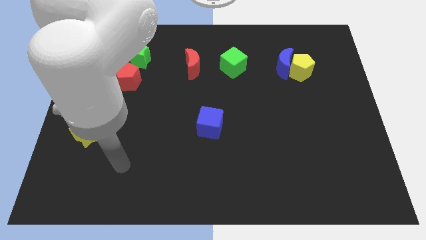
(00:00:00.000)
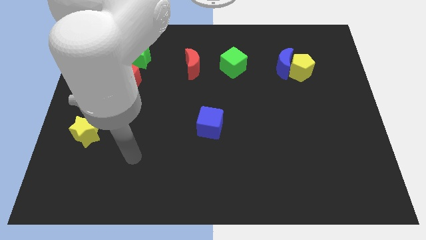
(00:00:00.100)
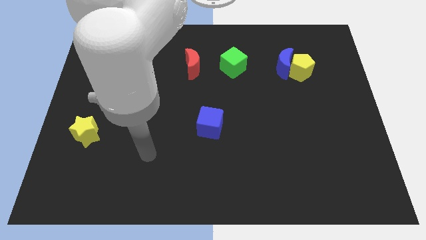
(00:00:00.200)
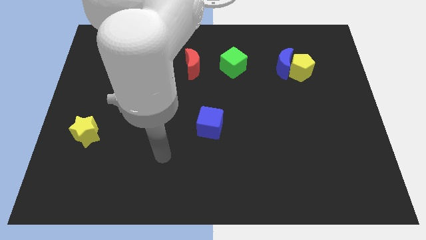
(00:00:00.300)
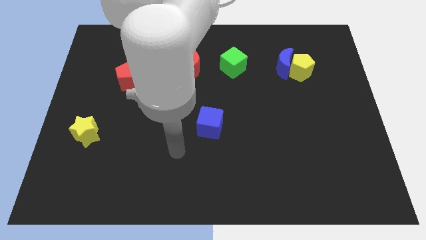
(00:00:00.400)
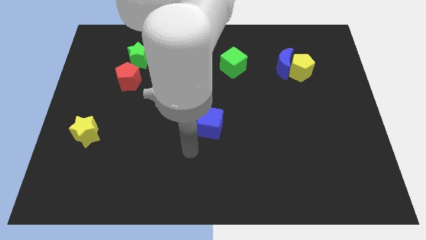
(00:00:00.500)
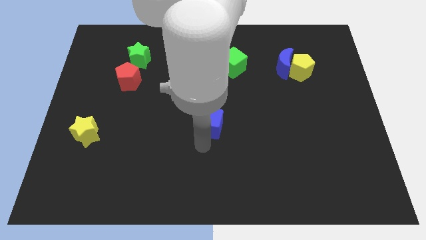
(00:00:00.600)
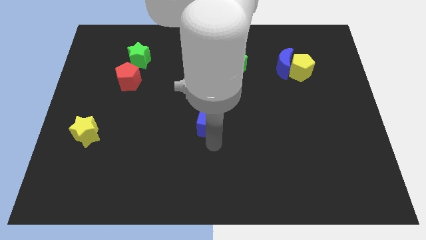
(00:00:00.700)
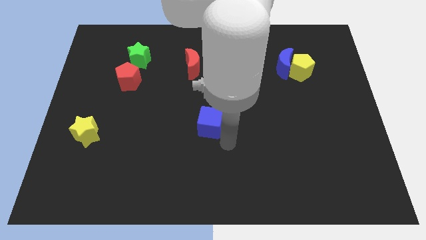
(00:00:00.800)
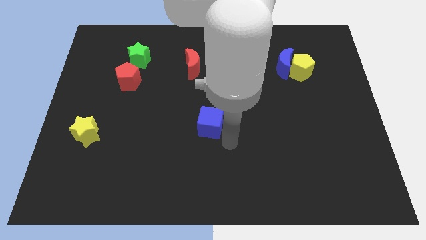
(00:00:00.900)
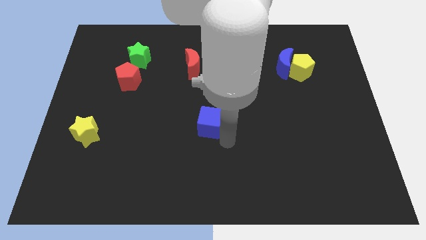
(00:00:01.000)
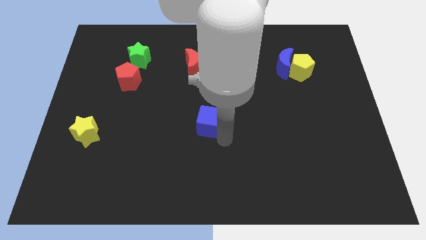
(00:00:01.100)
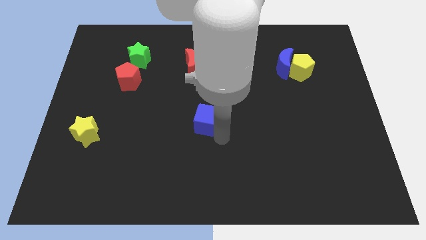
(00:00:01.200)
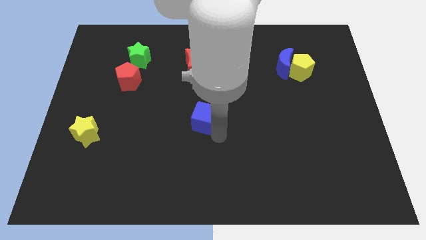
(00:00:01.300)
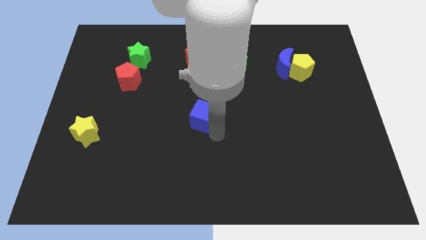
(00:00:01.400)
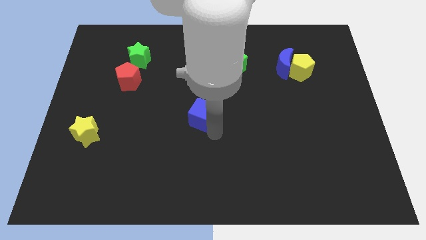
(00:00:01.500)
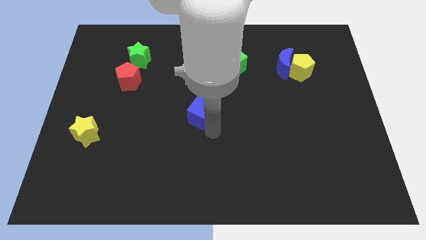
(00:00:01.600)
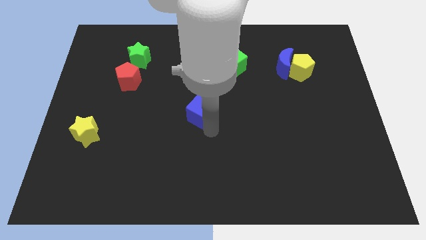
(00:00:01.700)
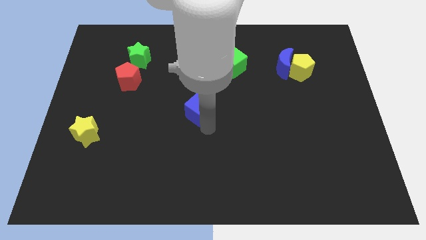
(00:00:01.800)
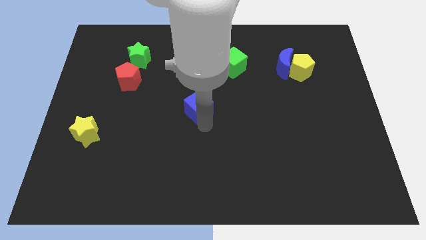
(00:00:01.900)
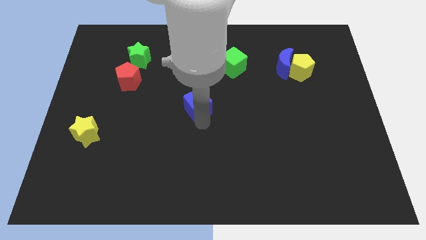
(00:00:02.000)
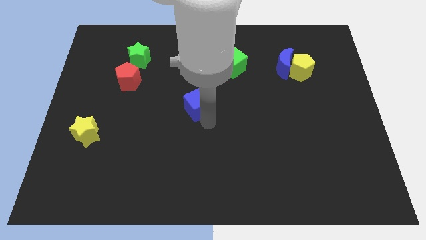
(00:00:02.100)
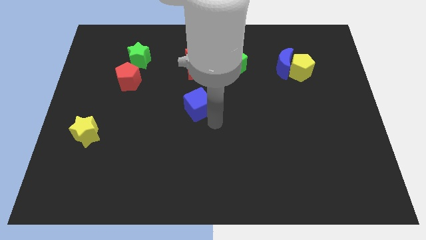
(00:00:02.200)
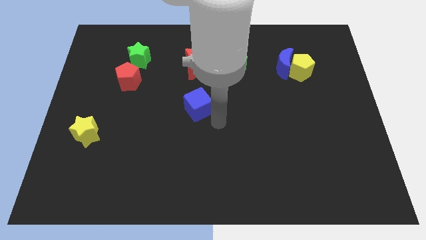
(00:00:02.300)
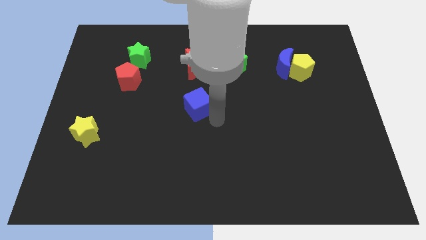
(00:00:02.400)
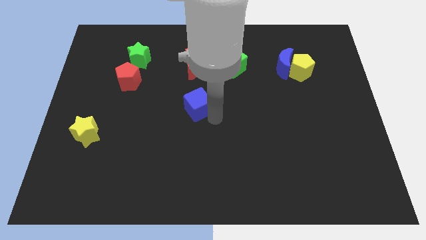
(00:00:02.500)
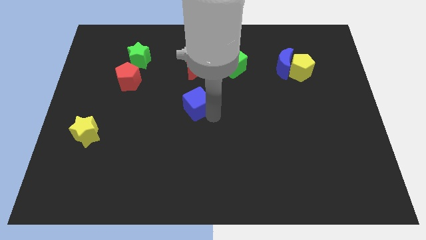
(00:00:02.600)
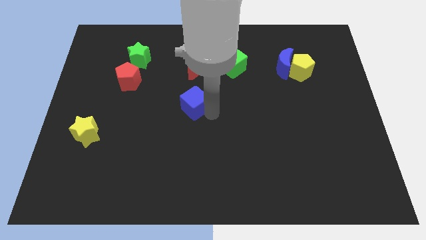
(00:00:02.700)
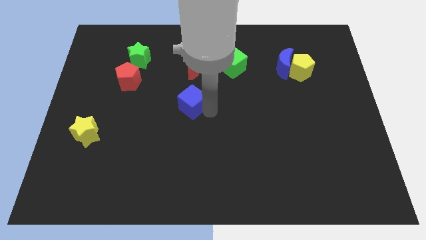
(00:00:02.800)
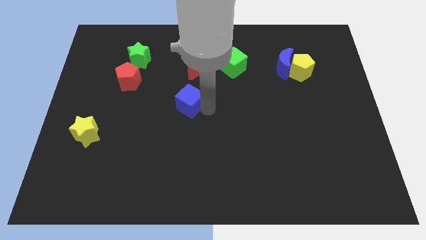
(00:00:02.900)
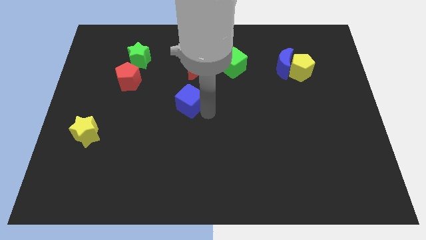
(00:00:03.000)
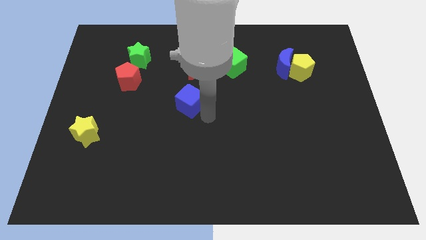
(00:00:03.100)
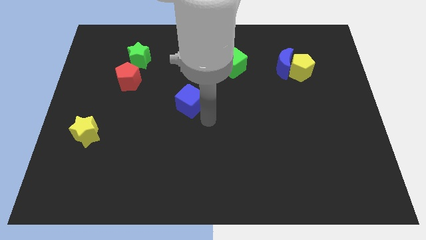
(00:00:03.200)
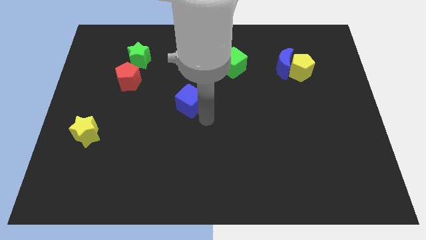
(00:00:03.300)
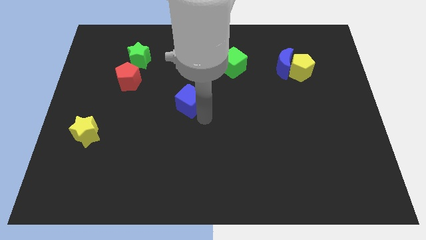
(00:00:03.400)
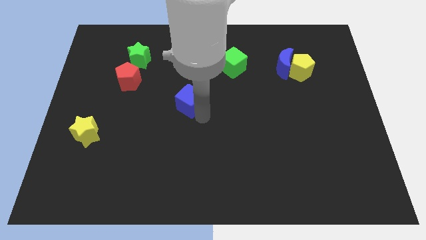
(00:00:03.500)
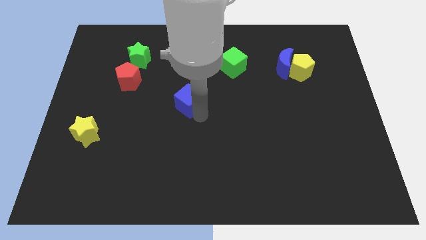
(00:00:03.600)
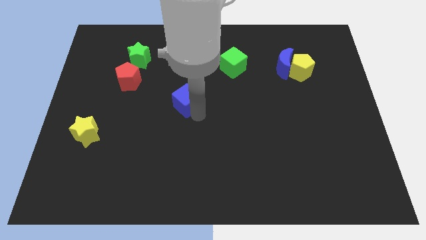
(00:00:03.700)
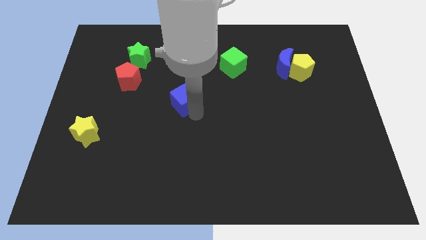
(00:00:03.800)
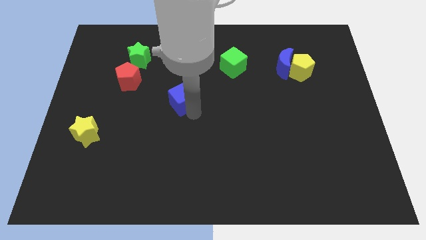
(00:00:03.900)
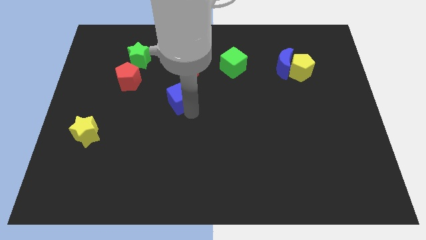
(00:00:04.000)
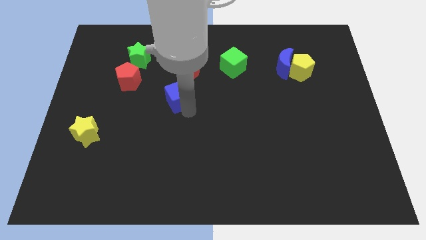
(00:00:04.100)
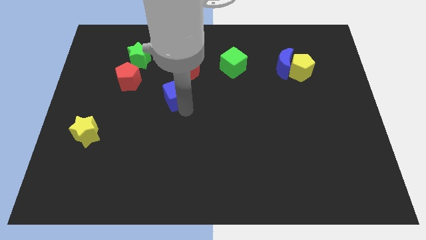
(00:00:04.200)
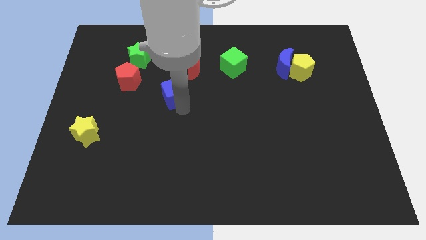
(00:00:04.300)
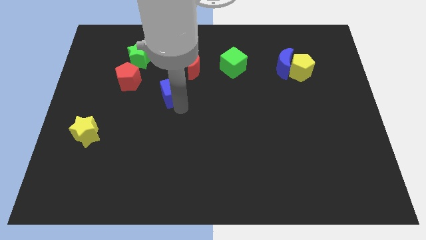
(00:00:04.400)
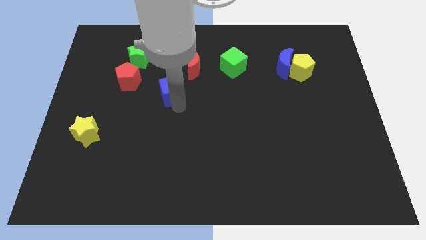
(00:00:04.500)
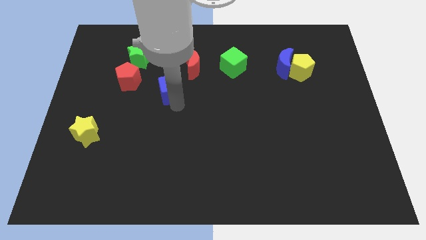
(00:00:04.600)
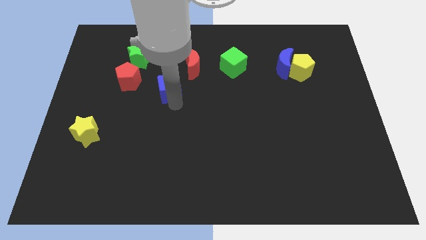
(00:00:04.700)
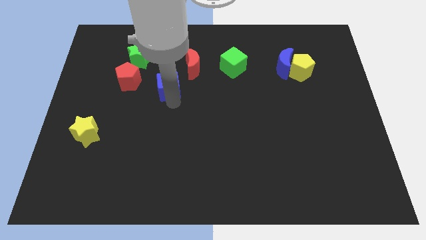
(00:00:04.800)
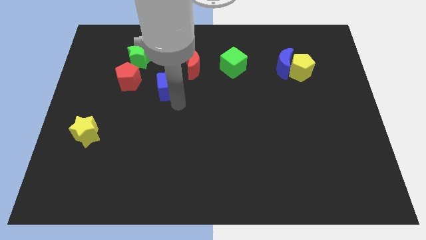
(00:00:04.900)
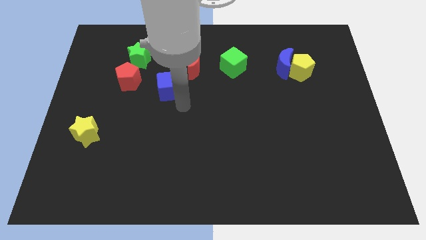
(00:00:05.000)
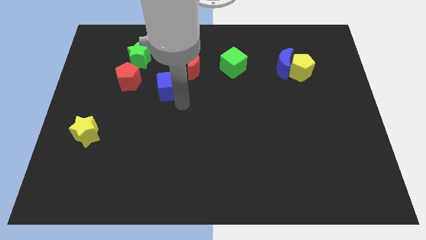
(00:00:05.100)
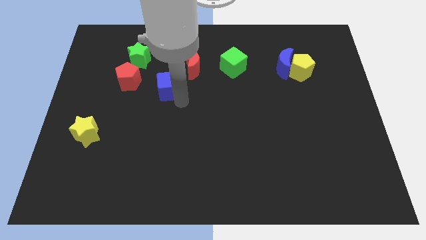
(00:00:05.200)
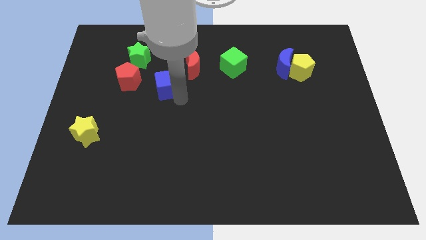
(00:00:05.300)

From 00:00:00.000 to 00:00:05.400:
push the blue cube diagonally down and to the right of the green star

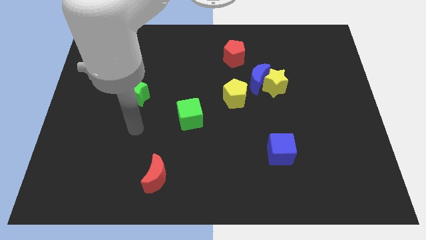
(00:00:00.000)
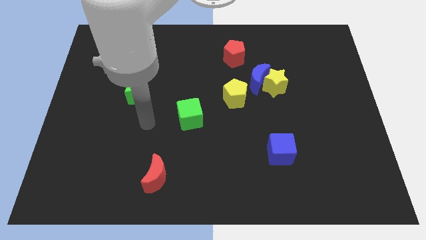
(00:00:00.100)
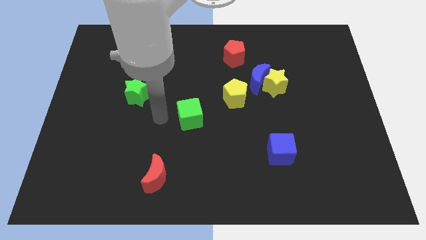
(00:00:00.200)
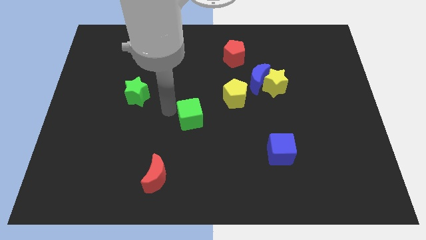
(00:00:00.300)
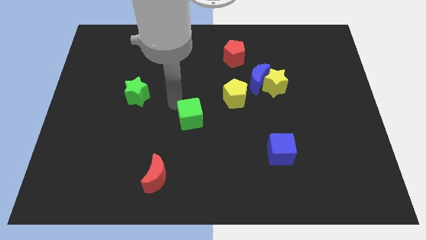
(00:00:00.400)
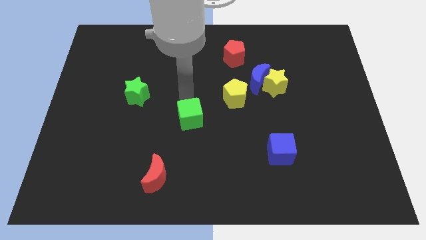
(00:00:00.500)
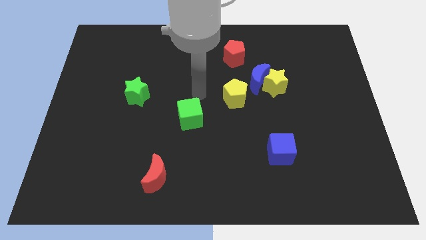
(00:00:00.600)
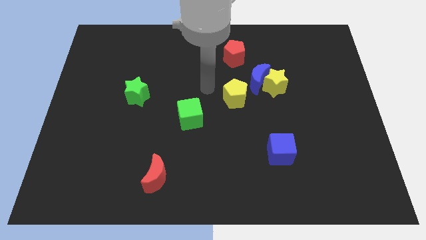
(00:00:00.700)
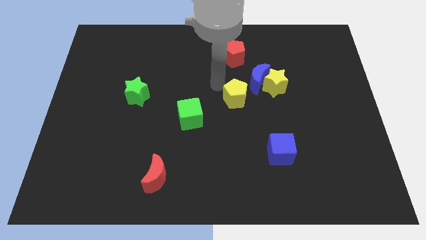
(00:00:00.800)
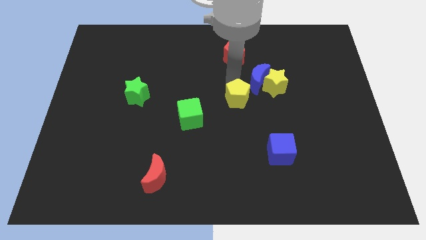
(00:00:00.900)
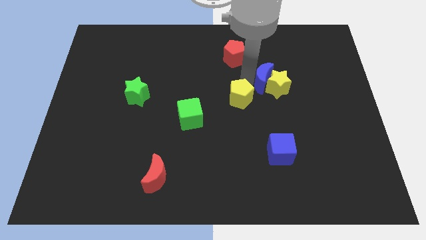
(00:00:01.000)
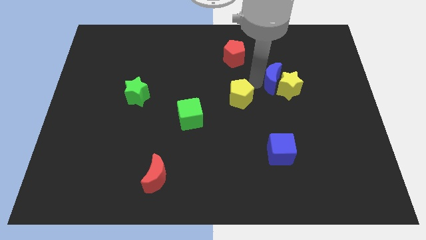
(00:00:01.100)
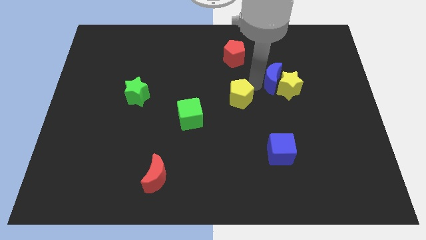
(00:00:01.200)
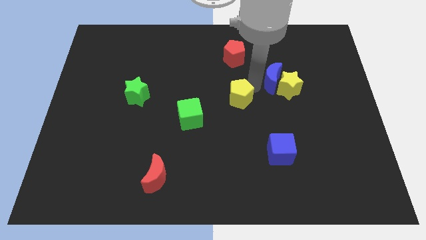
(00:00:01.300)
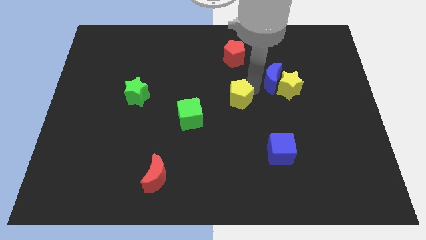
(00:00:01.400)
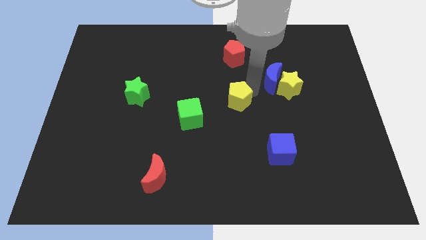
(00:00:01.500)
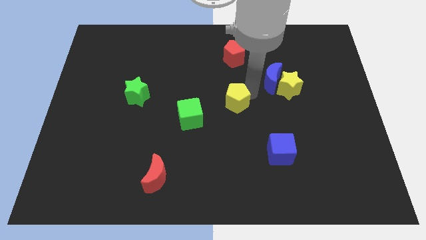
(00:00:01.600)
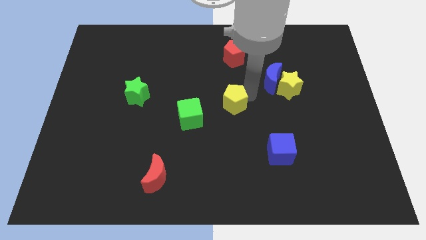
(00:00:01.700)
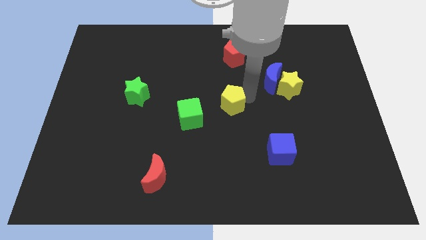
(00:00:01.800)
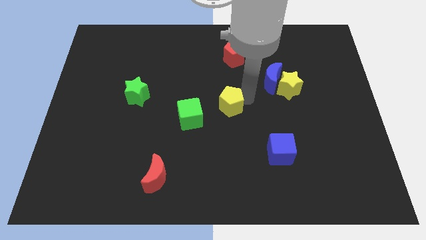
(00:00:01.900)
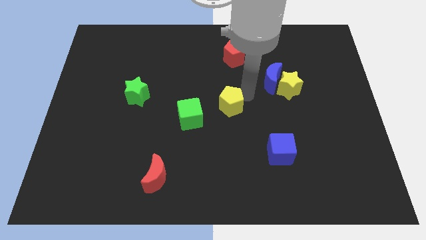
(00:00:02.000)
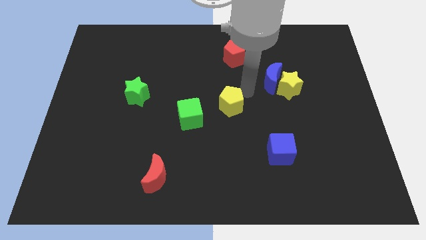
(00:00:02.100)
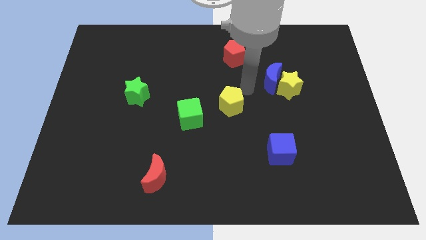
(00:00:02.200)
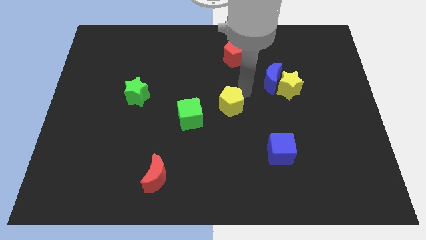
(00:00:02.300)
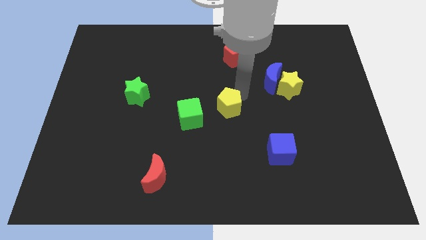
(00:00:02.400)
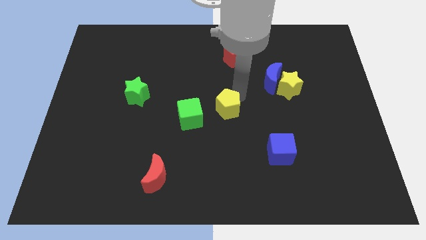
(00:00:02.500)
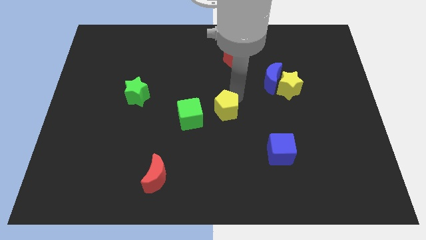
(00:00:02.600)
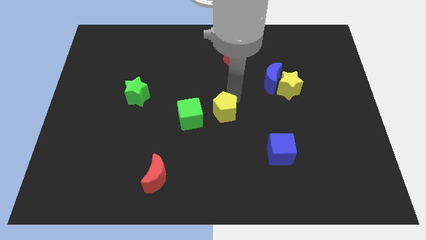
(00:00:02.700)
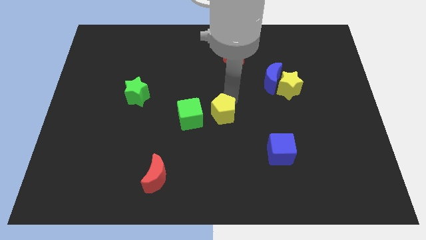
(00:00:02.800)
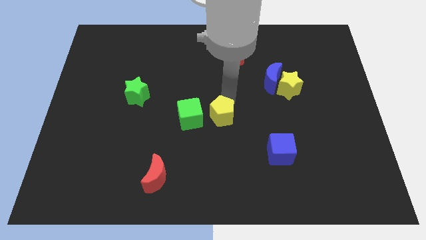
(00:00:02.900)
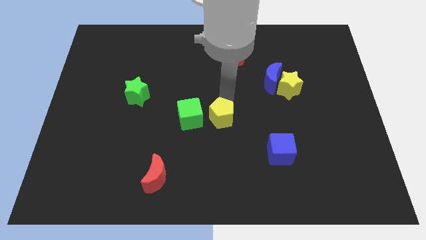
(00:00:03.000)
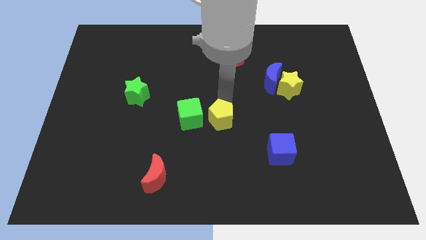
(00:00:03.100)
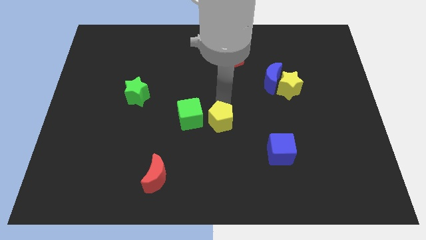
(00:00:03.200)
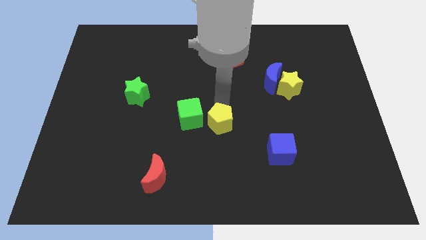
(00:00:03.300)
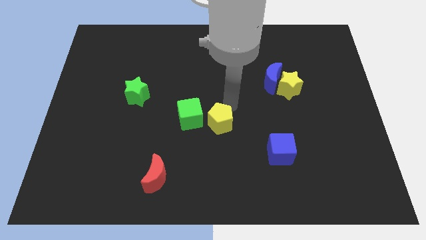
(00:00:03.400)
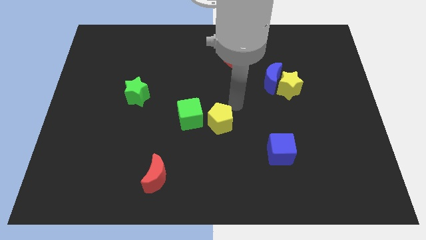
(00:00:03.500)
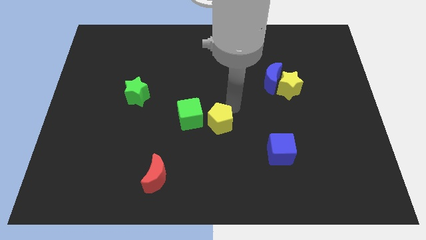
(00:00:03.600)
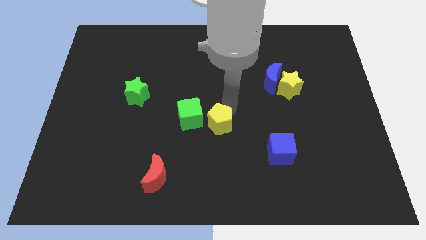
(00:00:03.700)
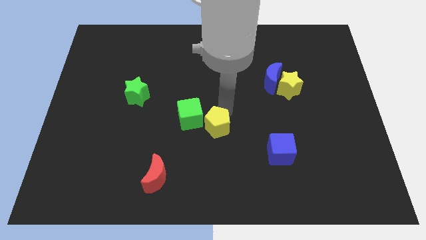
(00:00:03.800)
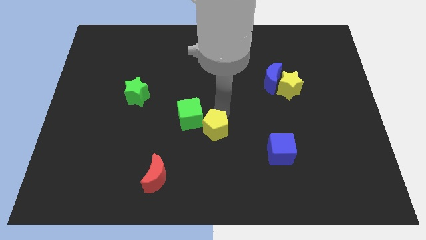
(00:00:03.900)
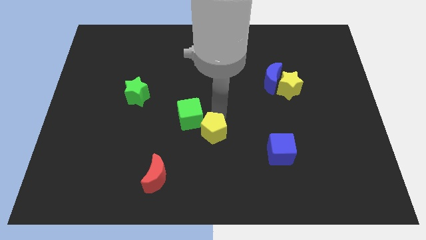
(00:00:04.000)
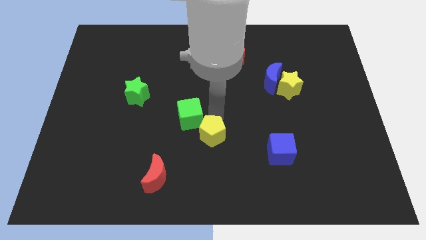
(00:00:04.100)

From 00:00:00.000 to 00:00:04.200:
push the yellow pentagon to the bottom of the green cube
